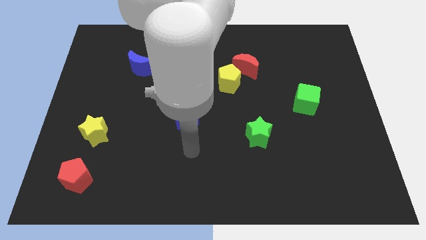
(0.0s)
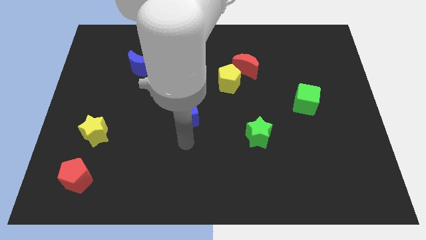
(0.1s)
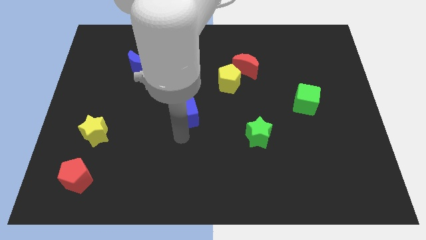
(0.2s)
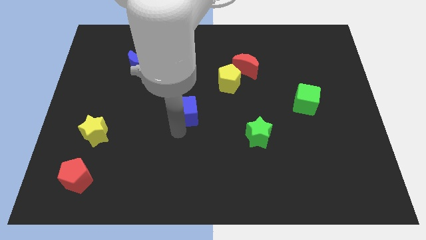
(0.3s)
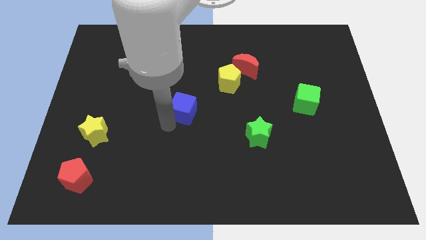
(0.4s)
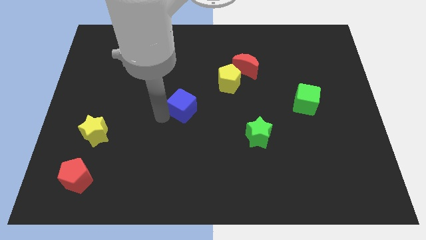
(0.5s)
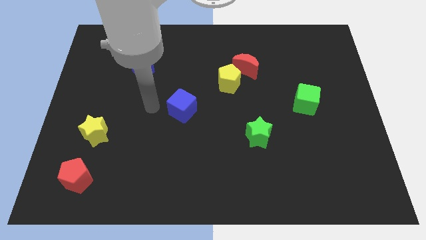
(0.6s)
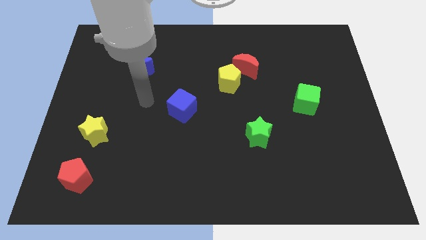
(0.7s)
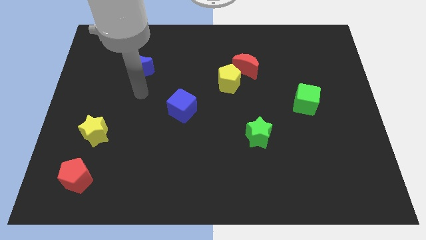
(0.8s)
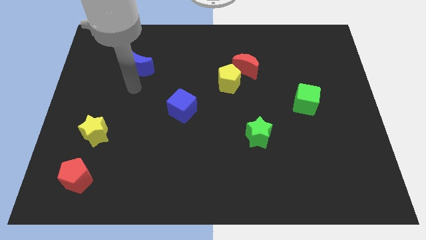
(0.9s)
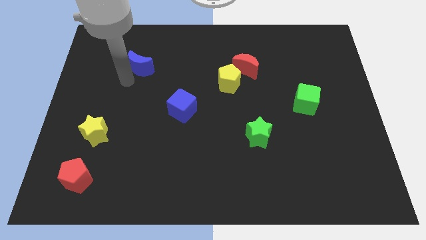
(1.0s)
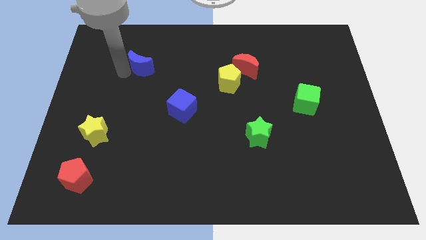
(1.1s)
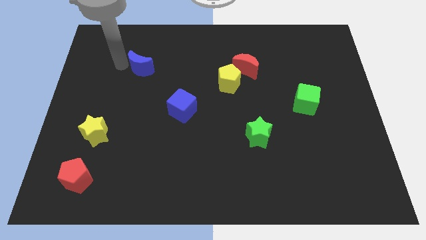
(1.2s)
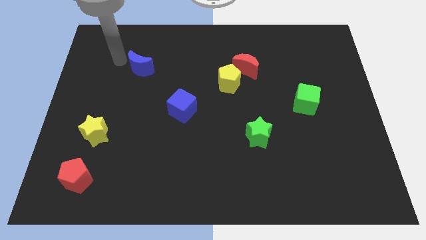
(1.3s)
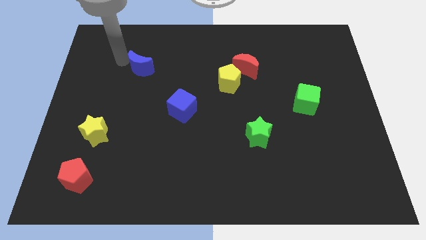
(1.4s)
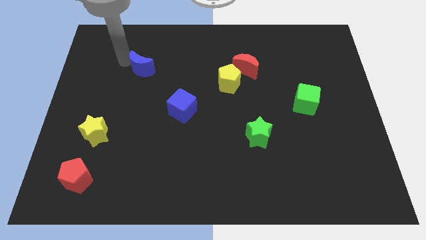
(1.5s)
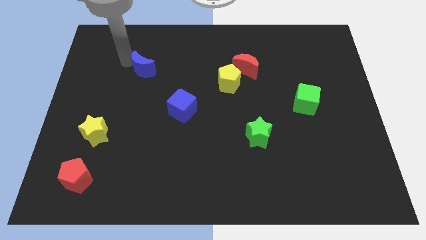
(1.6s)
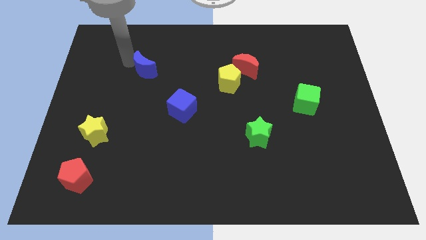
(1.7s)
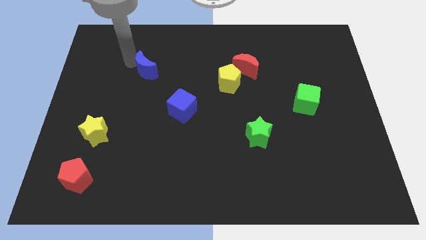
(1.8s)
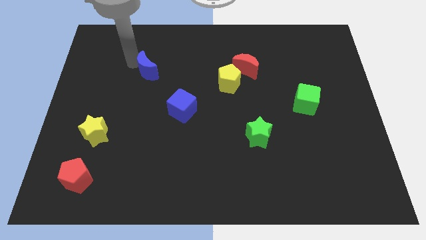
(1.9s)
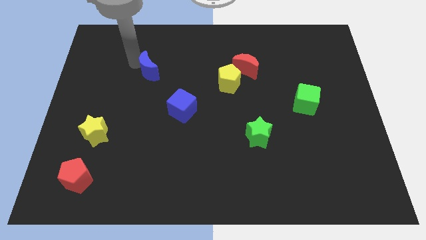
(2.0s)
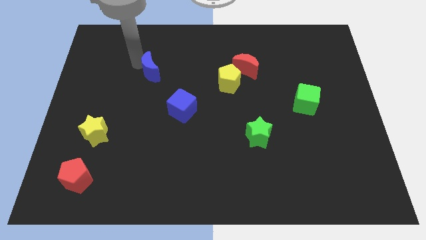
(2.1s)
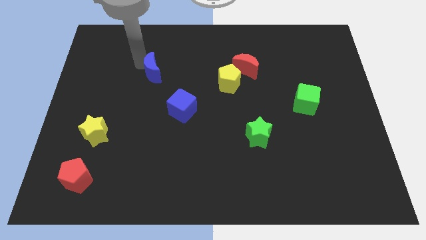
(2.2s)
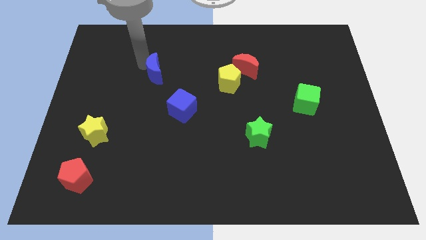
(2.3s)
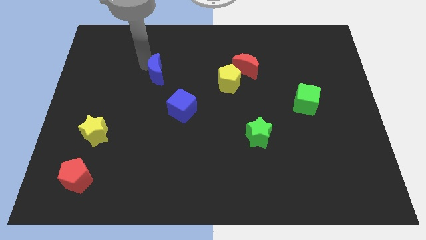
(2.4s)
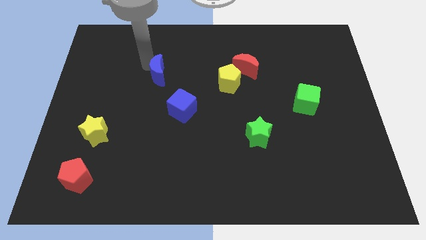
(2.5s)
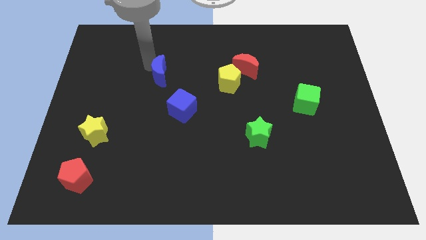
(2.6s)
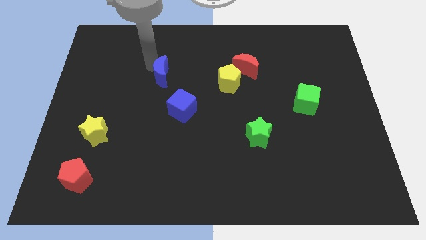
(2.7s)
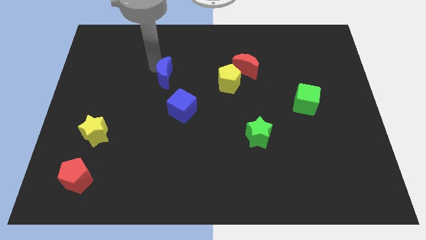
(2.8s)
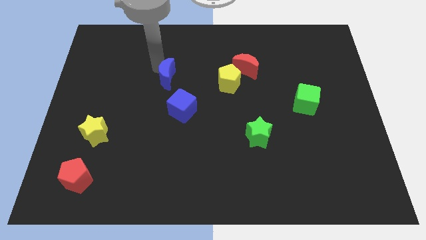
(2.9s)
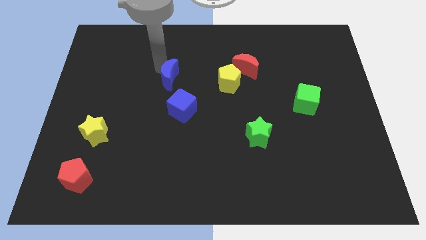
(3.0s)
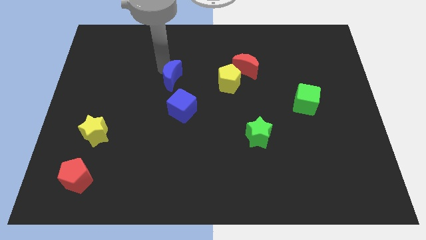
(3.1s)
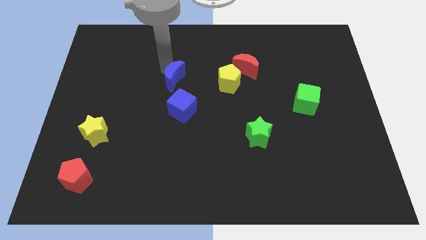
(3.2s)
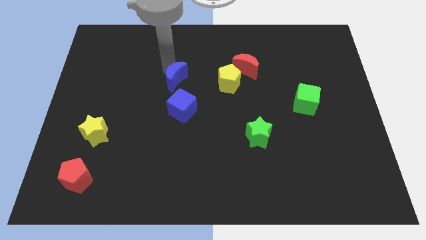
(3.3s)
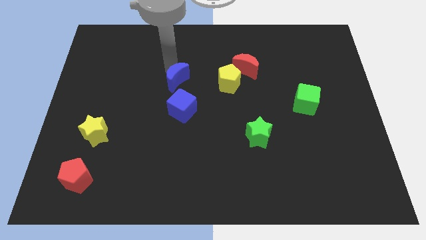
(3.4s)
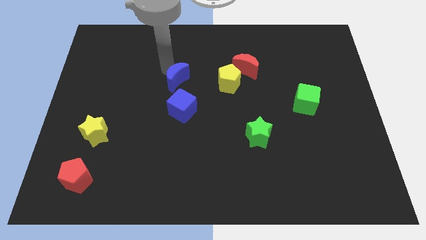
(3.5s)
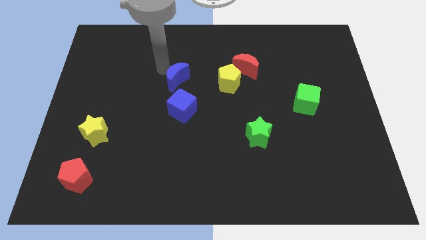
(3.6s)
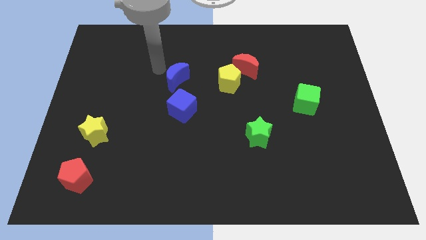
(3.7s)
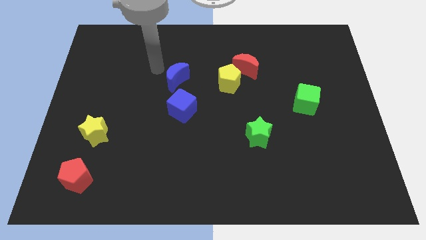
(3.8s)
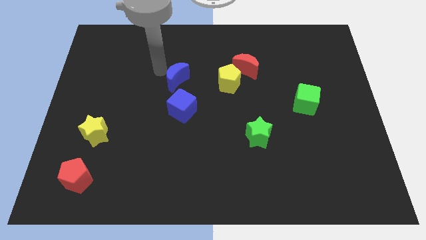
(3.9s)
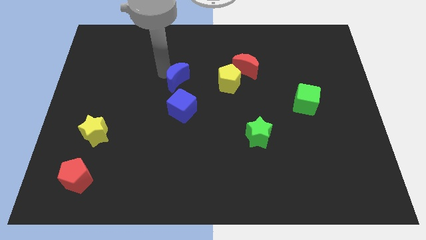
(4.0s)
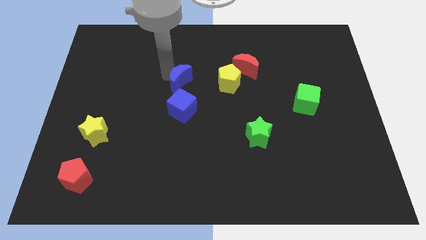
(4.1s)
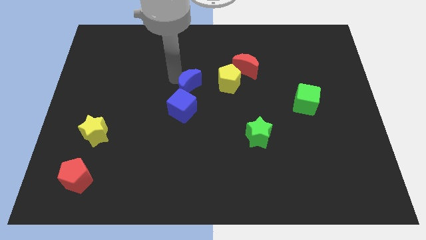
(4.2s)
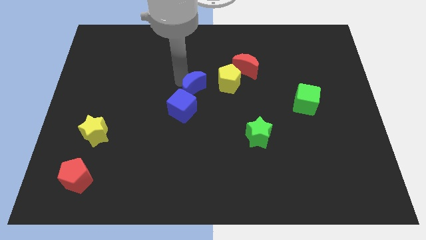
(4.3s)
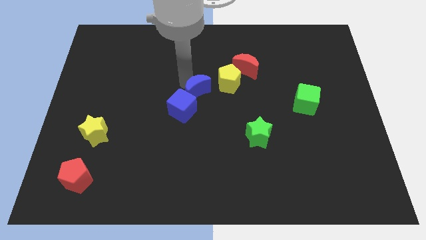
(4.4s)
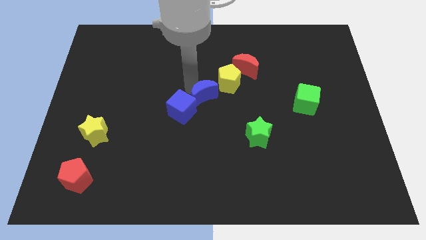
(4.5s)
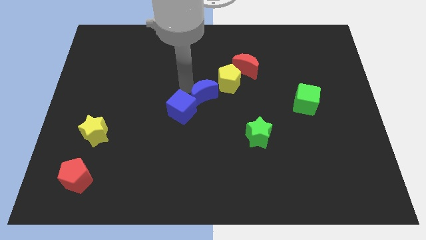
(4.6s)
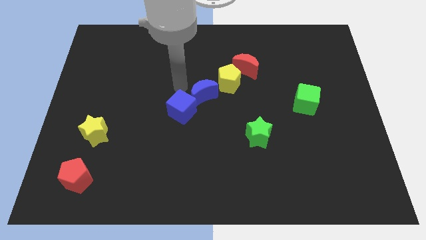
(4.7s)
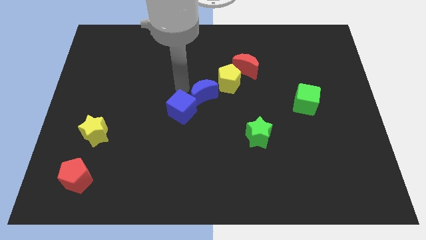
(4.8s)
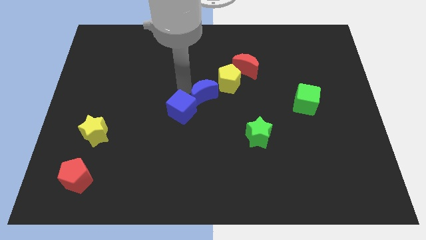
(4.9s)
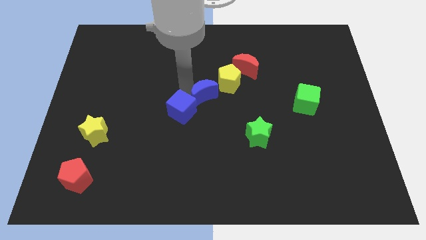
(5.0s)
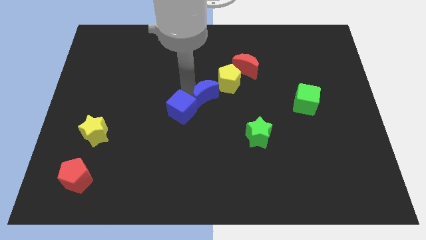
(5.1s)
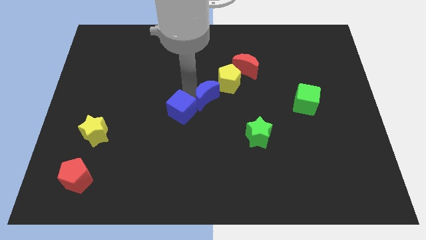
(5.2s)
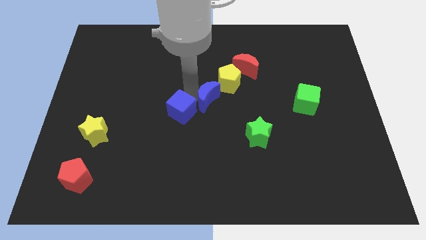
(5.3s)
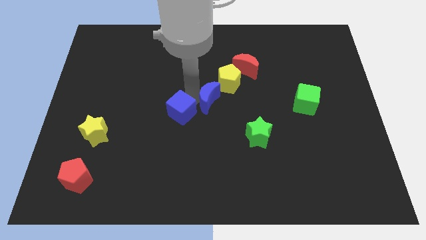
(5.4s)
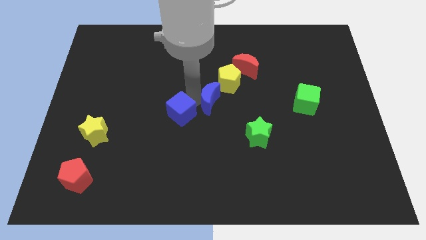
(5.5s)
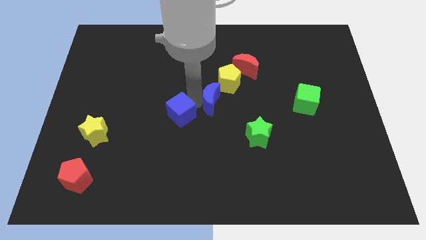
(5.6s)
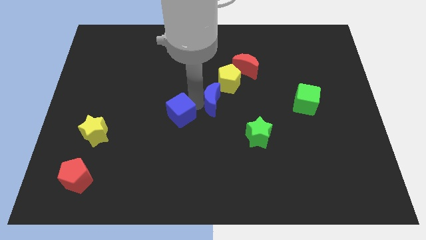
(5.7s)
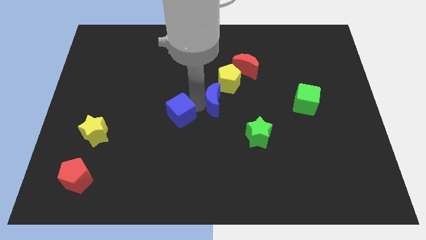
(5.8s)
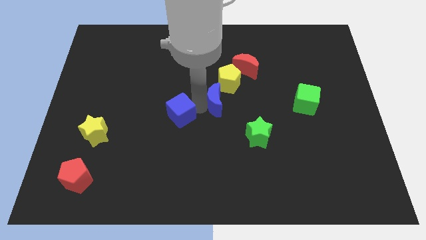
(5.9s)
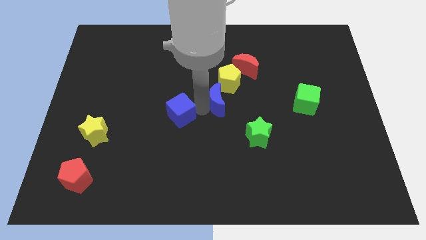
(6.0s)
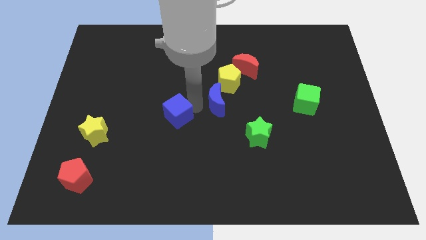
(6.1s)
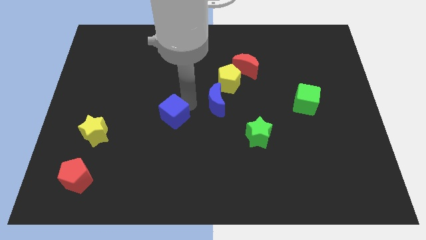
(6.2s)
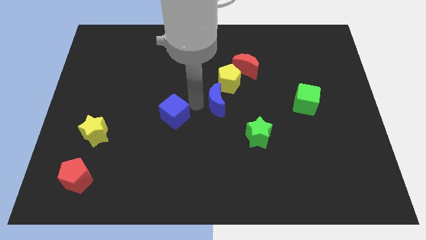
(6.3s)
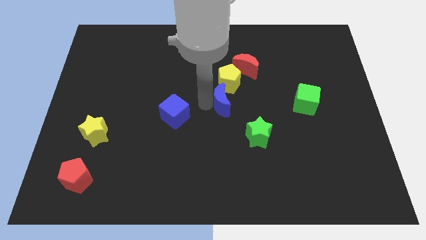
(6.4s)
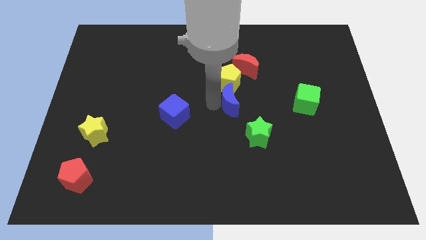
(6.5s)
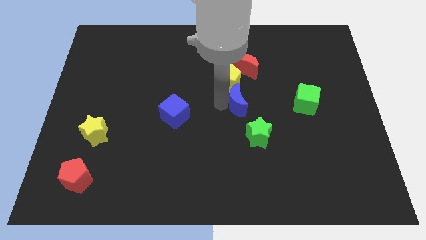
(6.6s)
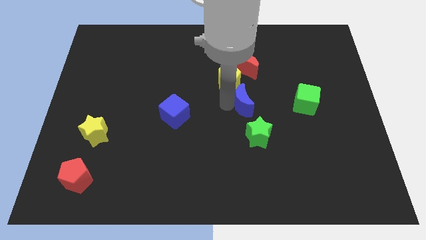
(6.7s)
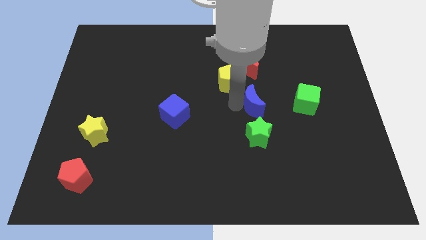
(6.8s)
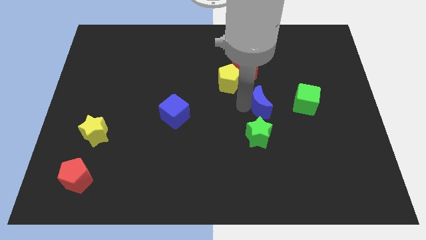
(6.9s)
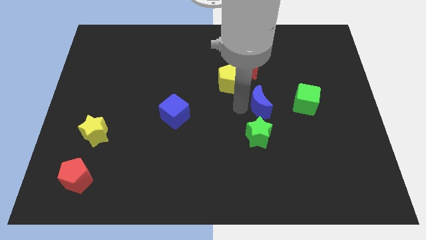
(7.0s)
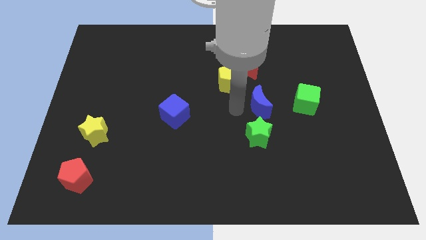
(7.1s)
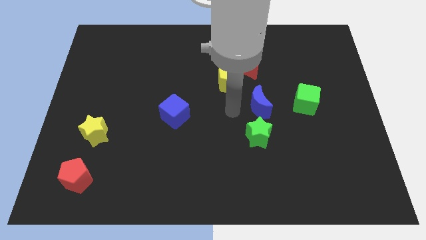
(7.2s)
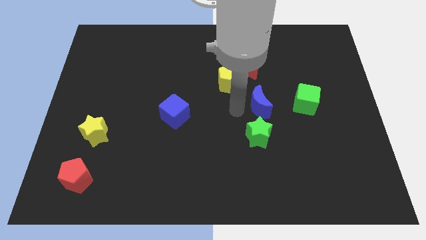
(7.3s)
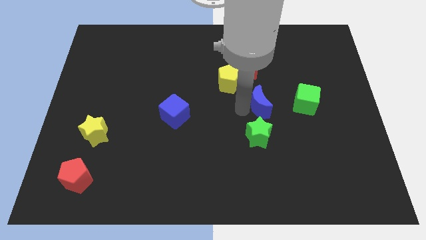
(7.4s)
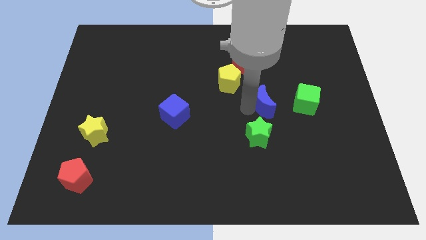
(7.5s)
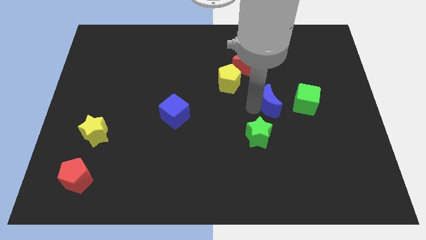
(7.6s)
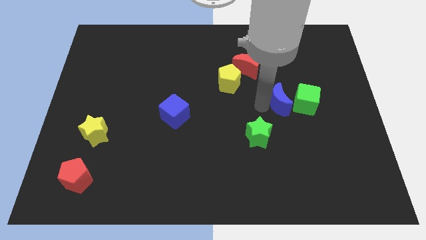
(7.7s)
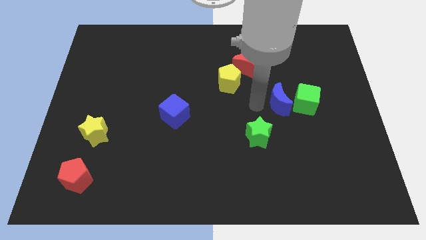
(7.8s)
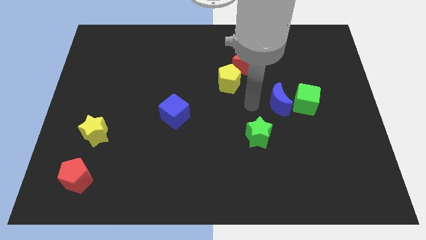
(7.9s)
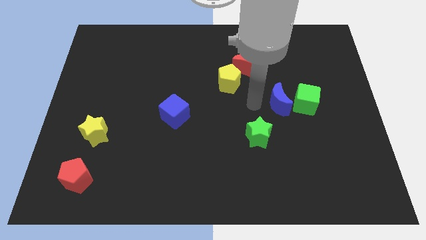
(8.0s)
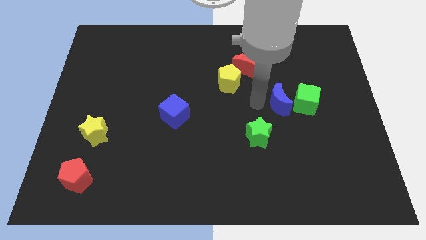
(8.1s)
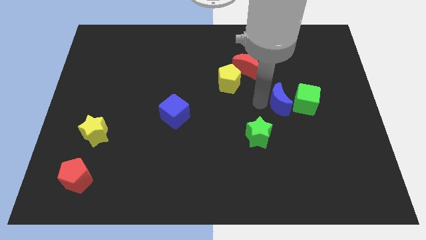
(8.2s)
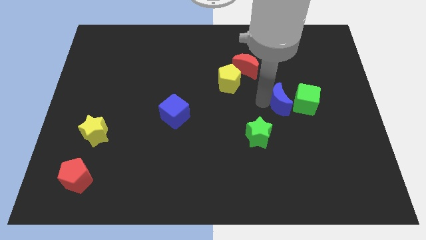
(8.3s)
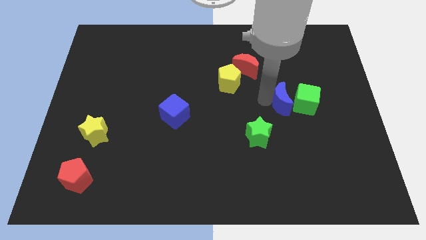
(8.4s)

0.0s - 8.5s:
move the blue moon next to the green cube
